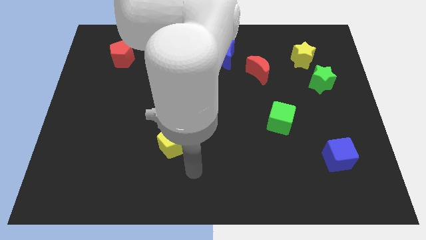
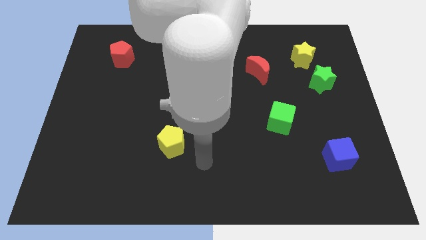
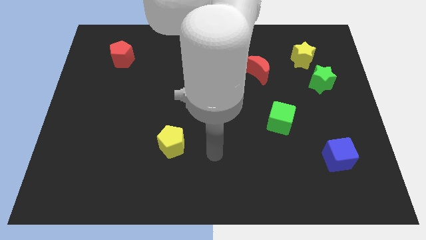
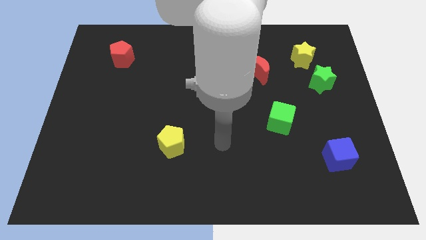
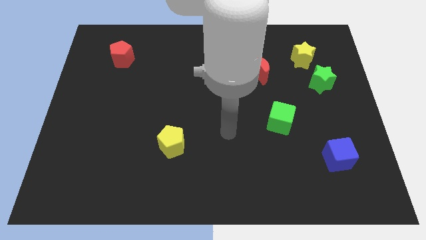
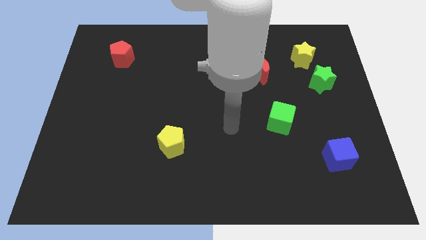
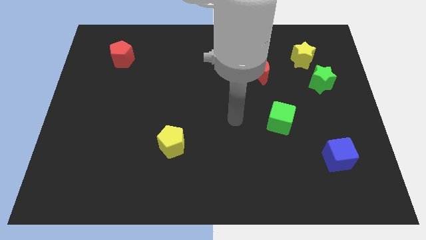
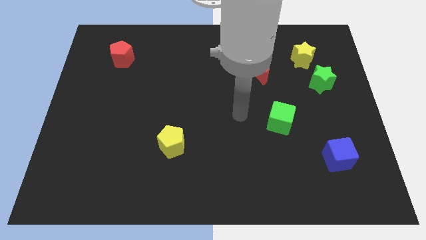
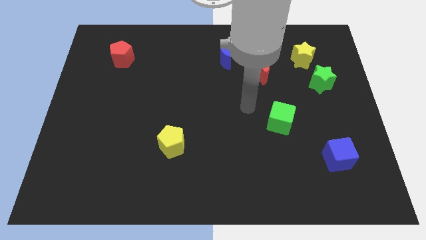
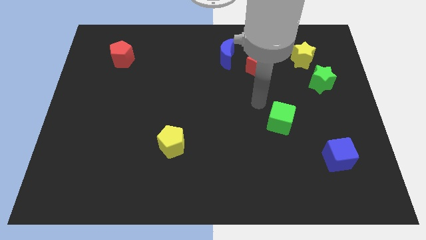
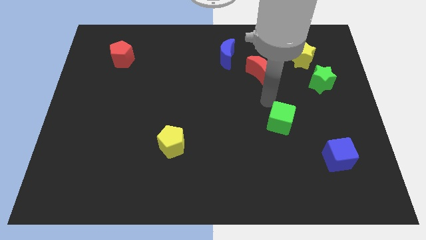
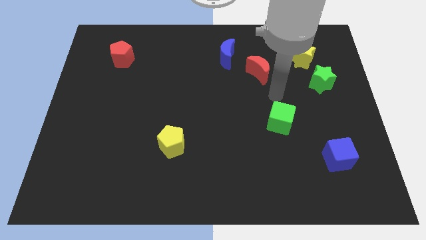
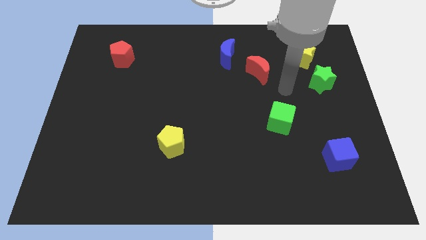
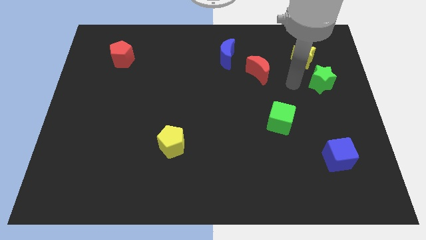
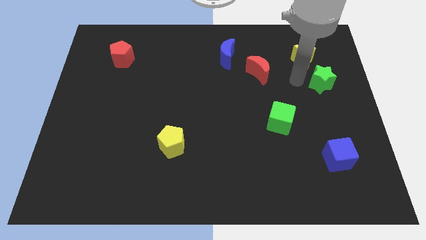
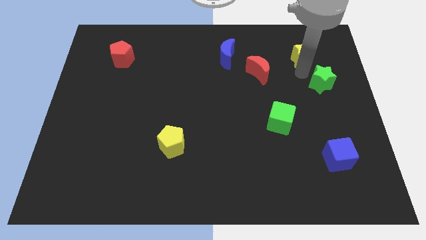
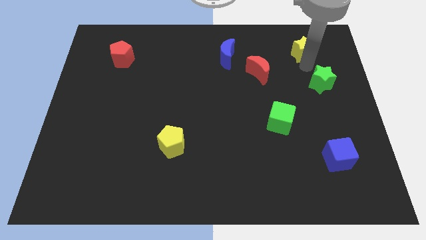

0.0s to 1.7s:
separate the green star from the yellow star

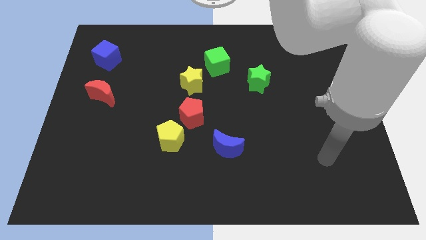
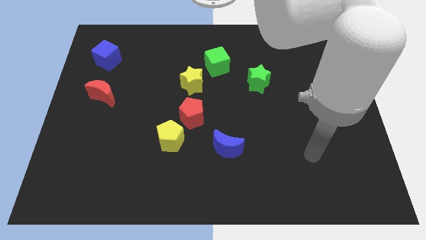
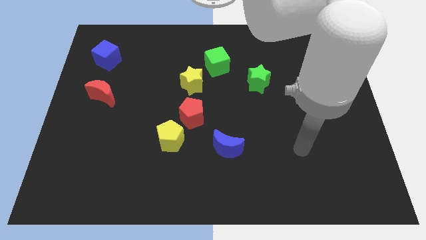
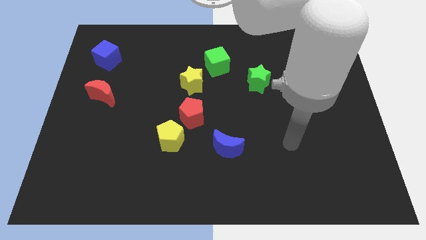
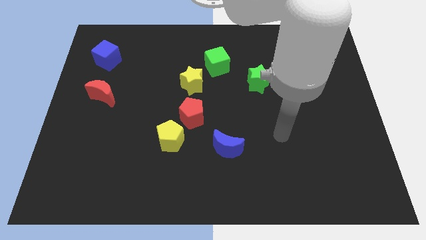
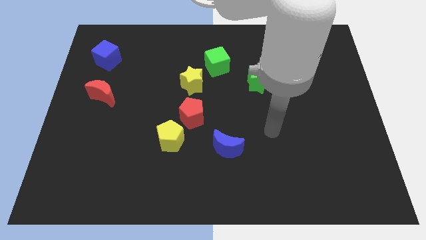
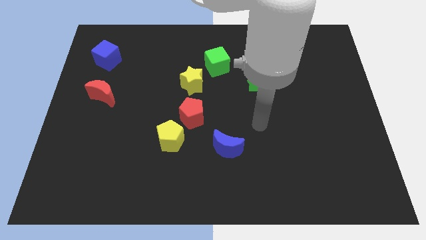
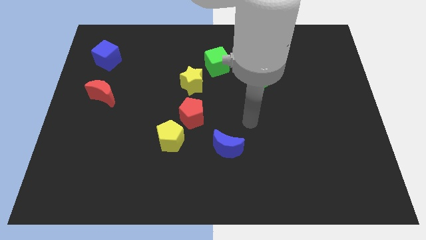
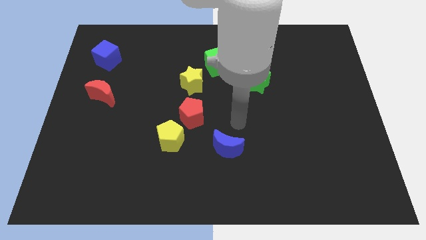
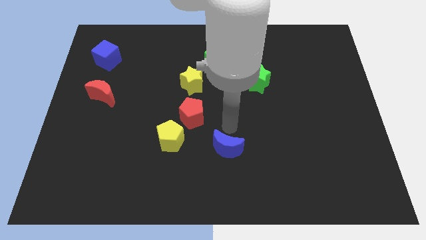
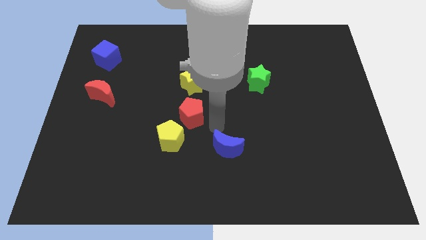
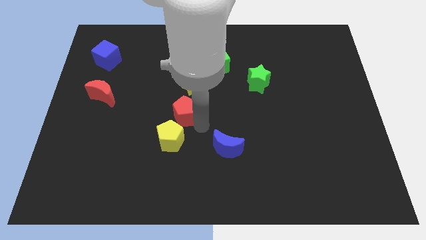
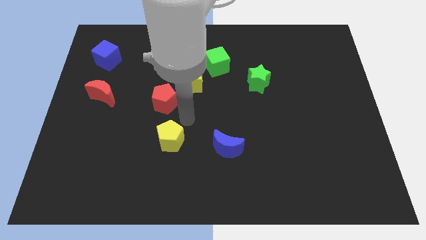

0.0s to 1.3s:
move the yellow pentagon away from the red pentagon

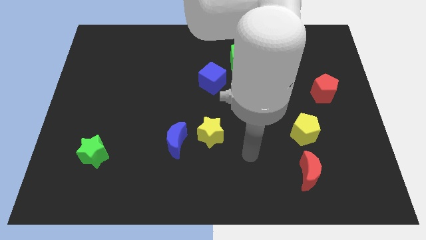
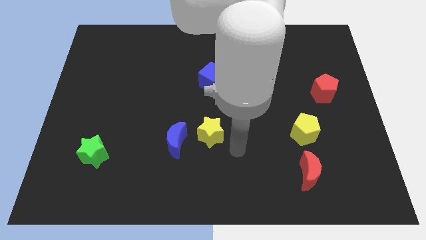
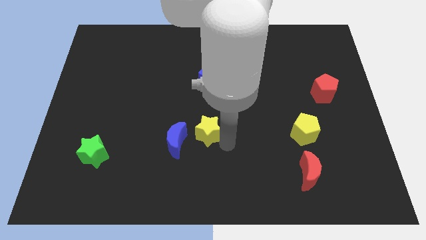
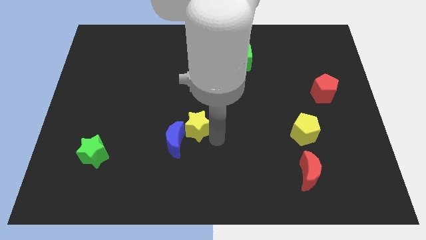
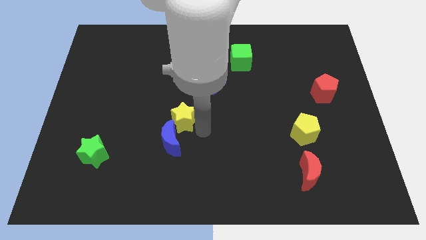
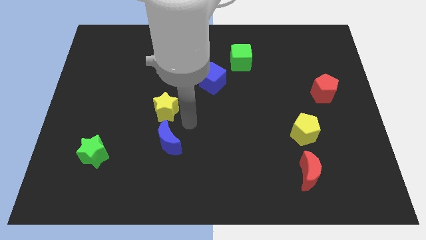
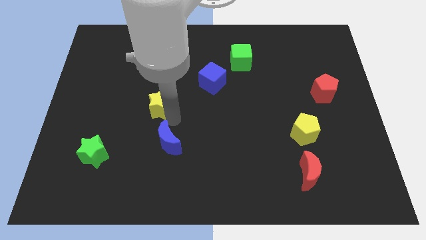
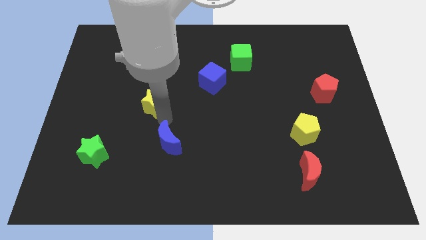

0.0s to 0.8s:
pull the blue moon apart from the yellow star

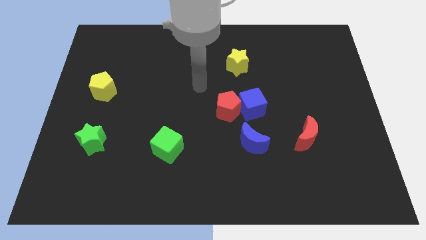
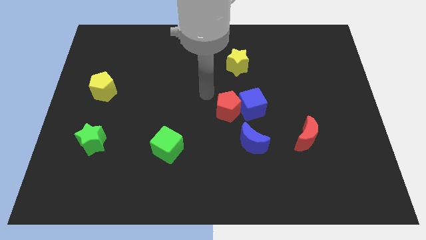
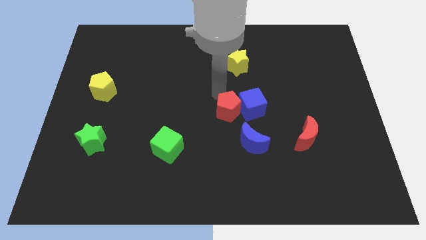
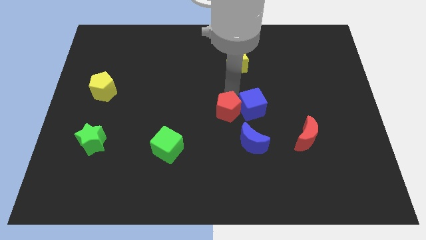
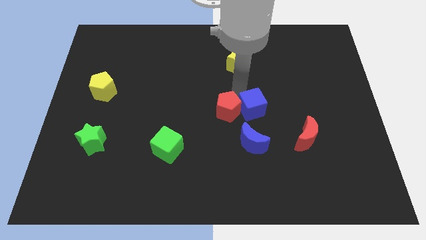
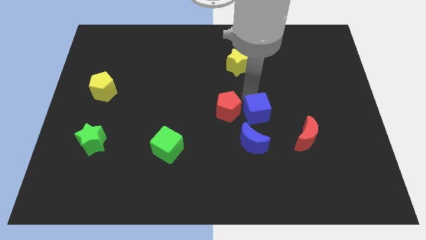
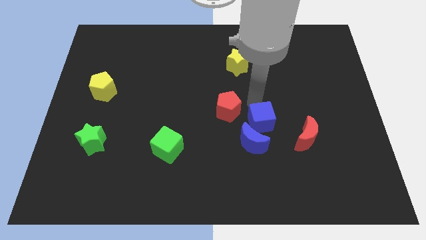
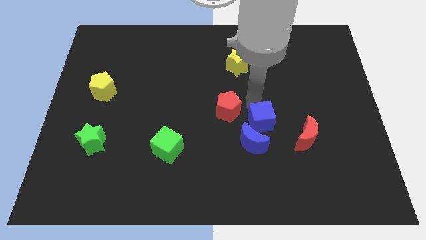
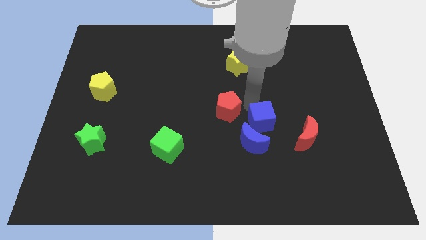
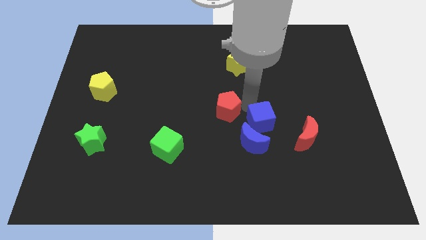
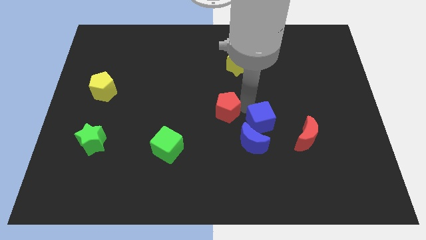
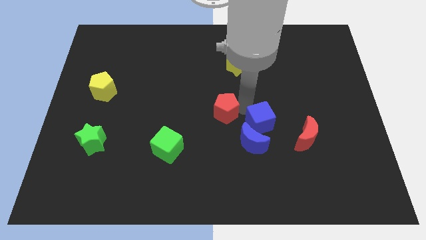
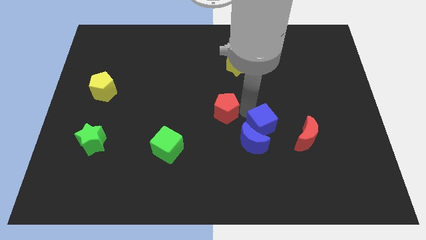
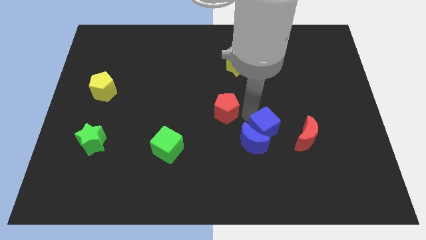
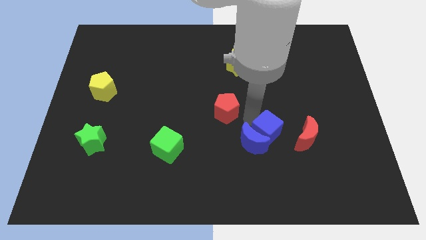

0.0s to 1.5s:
pull the red pentagon apart from the blue cube

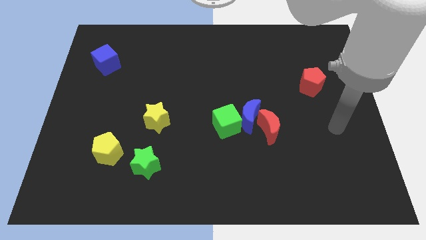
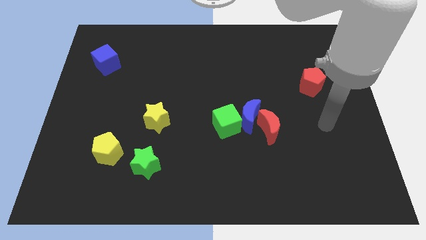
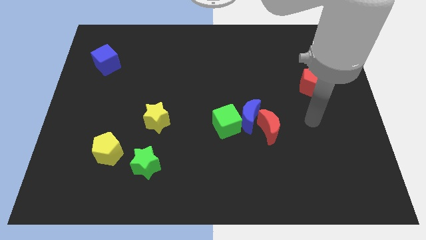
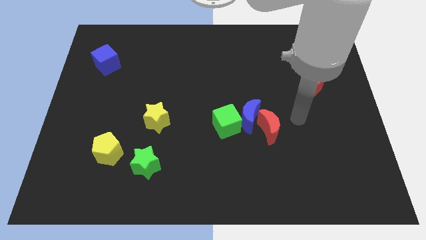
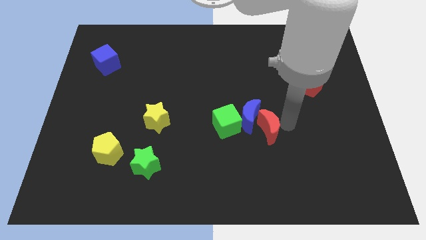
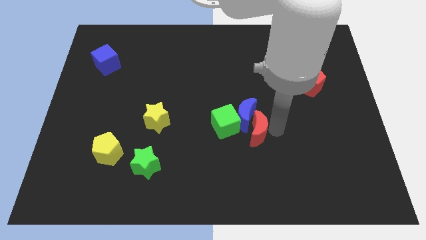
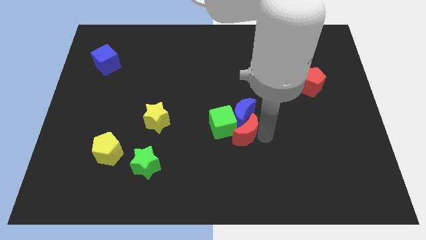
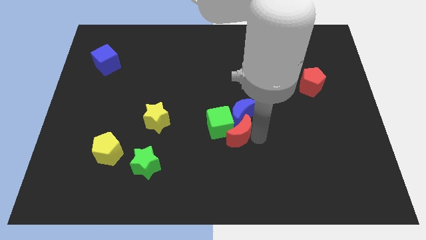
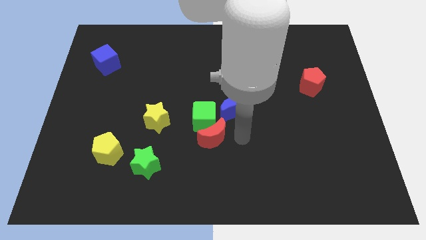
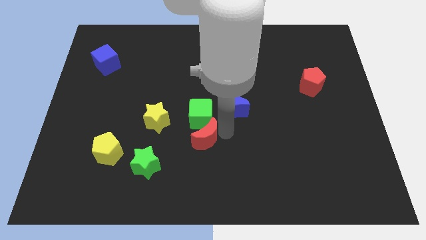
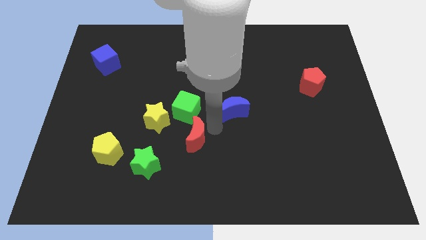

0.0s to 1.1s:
pull the blue moon apart from the red moon and green cube

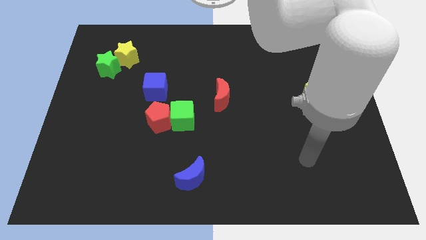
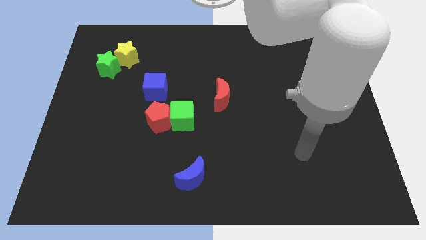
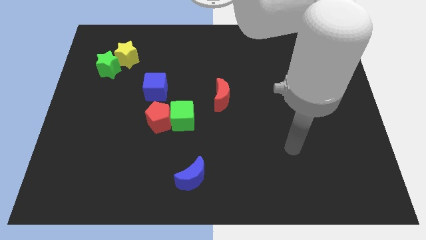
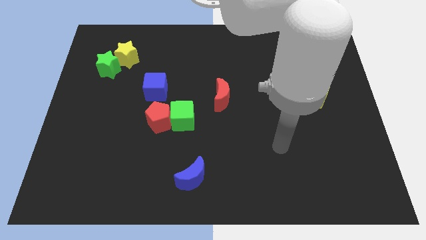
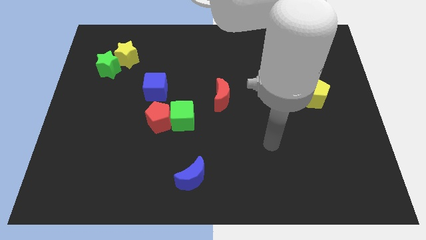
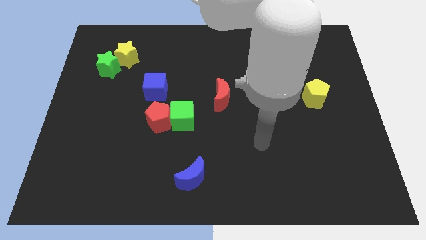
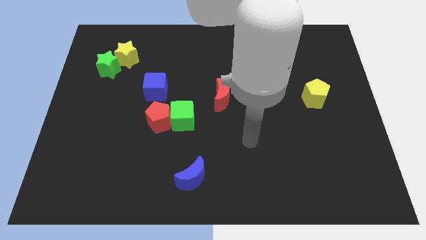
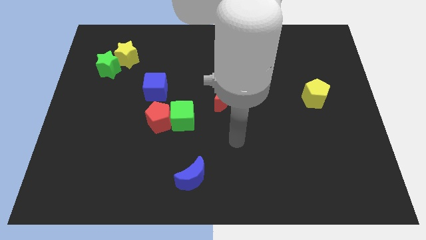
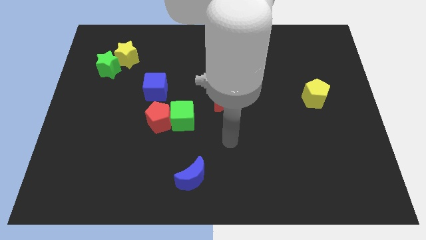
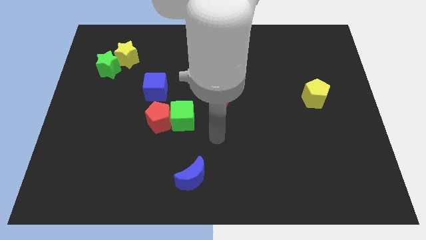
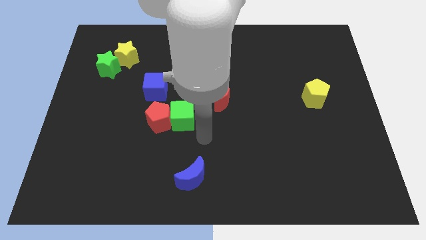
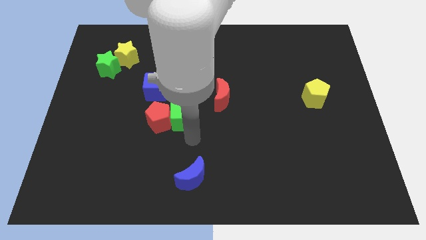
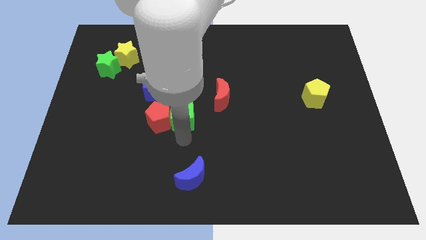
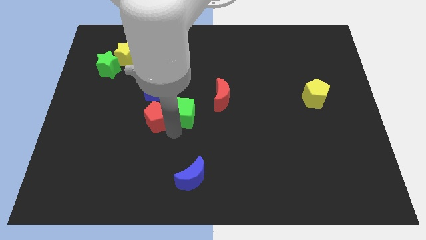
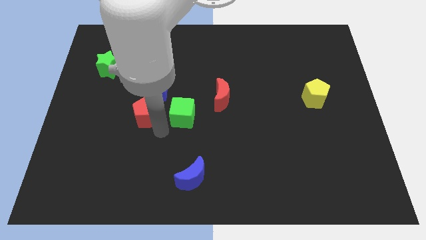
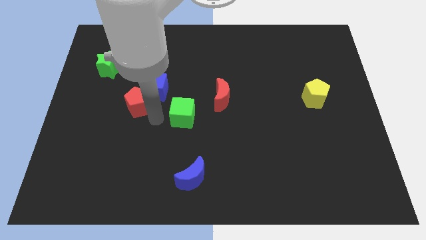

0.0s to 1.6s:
separate the green cube from the red pentagon

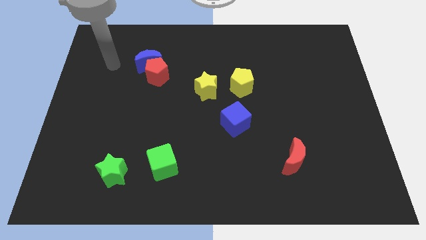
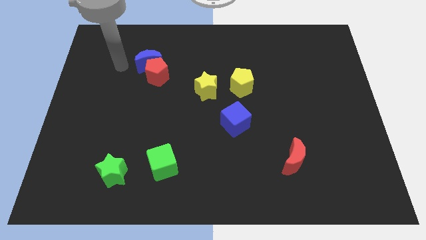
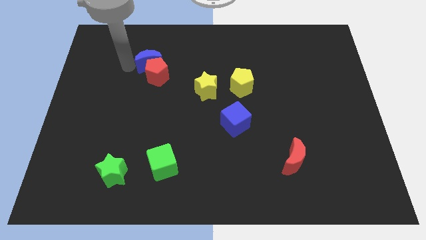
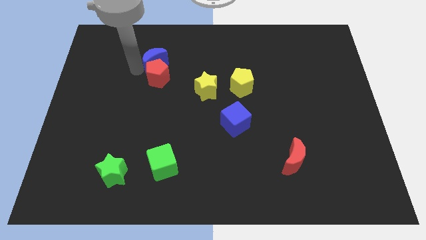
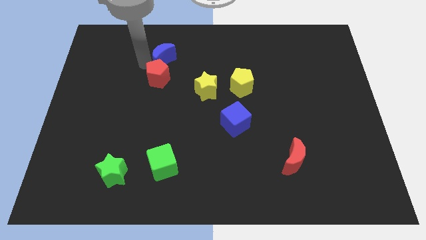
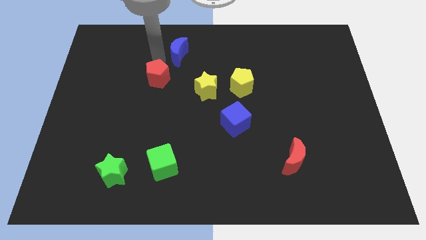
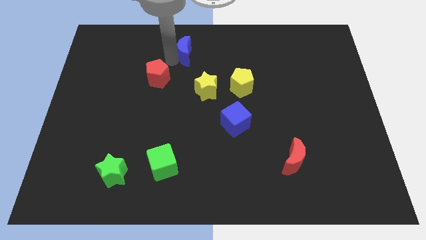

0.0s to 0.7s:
pull the red pentagon apart from the blue moon

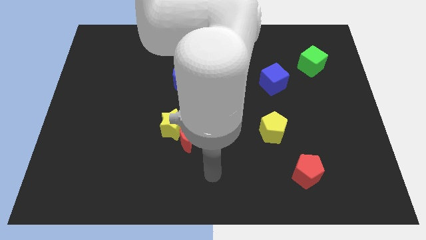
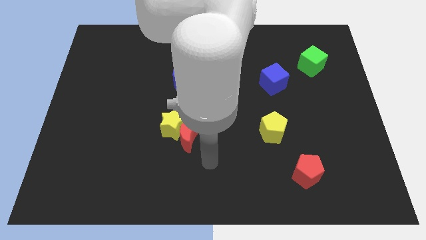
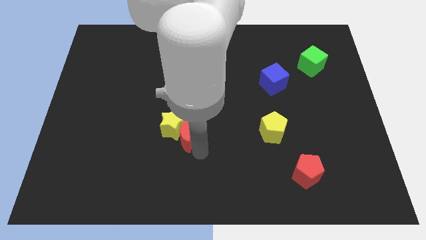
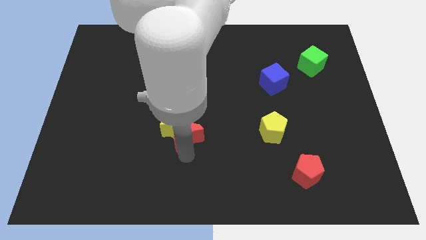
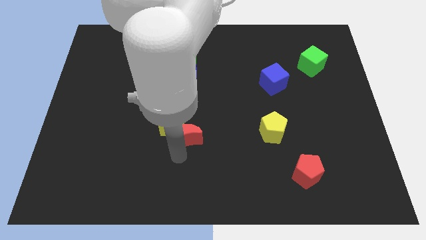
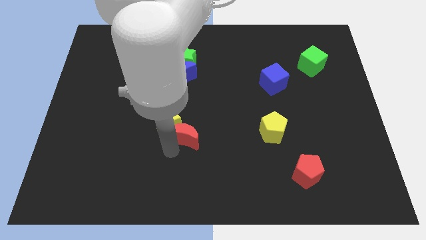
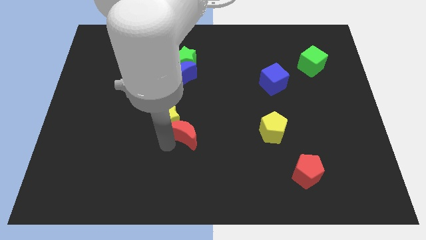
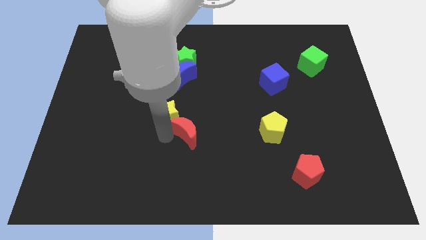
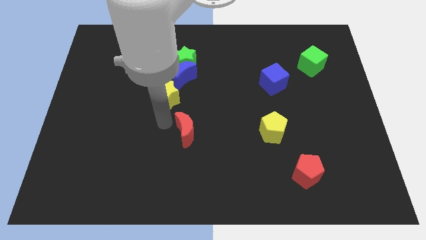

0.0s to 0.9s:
move the red moon away from the yellow star
